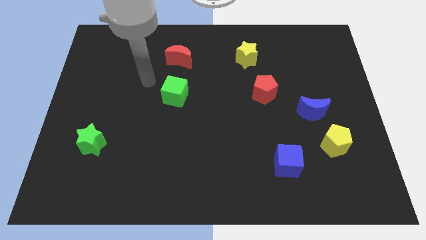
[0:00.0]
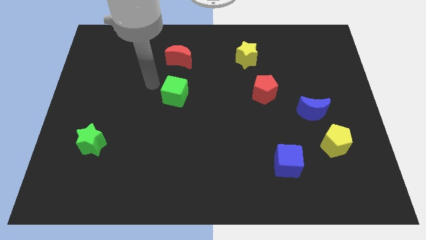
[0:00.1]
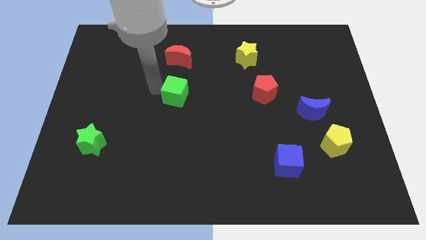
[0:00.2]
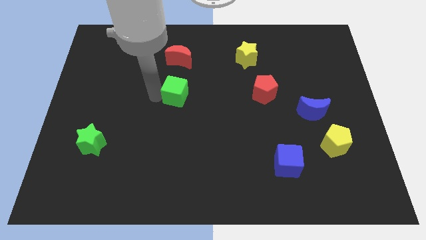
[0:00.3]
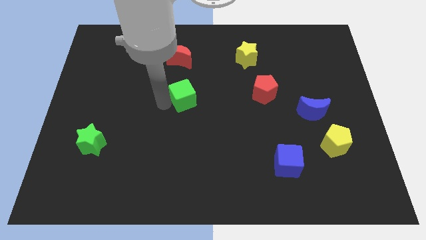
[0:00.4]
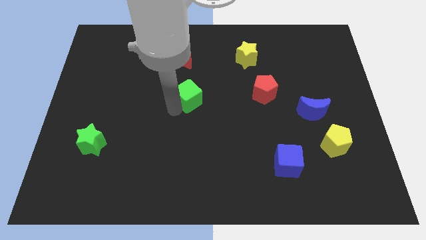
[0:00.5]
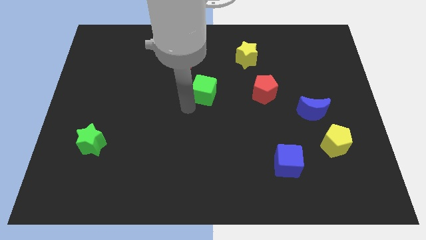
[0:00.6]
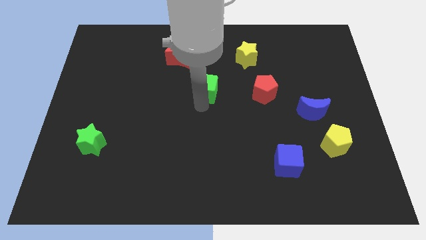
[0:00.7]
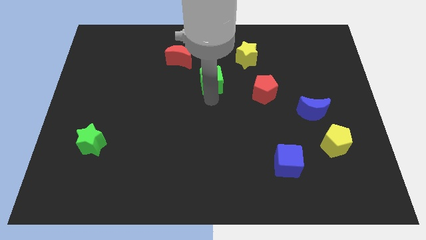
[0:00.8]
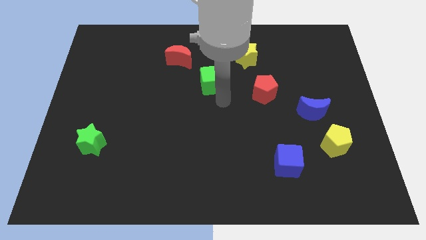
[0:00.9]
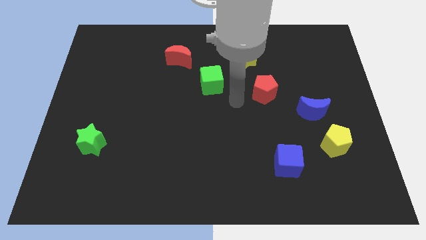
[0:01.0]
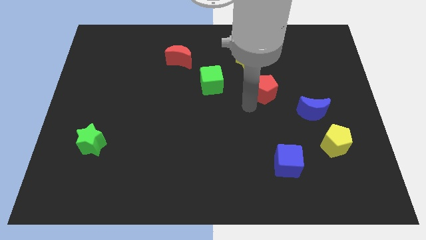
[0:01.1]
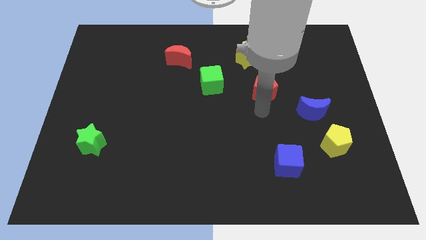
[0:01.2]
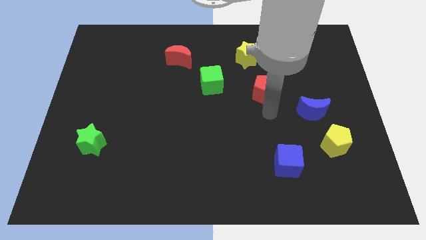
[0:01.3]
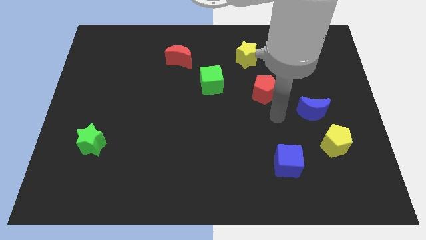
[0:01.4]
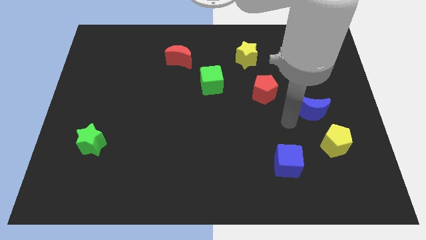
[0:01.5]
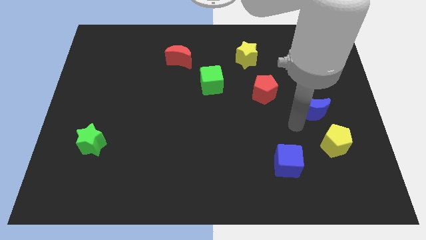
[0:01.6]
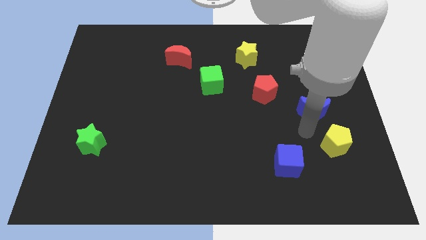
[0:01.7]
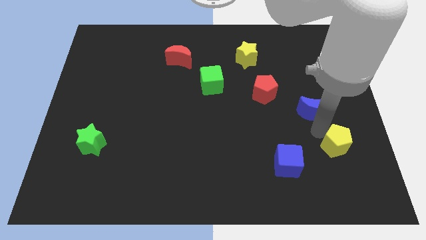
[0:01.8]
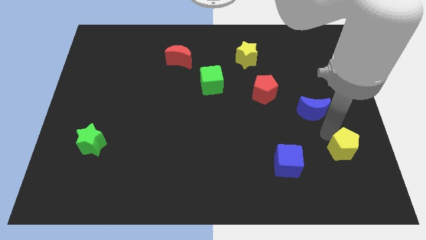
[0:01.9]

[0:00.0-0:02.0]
separate the blue moon from the yellow pentagon

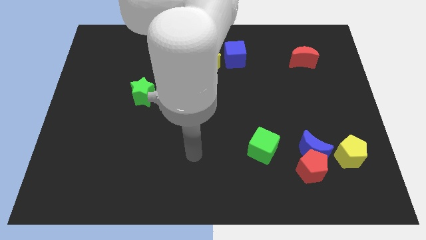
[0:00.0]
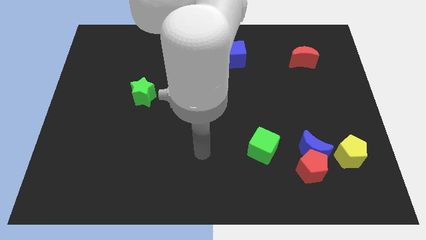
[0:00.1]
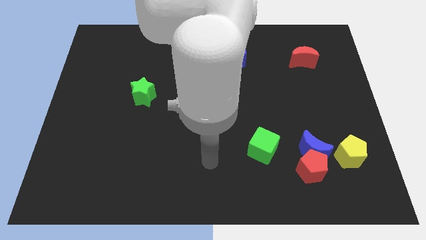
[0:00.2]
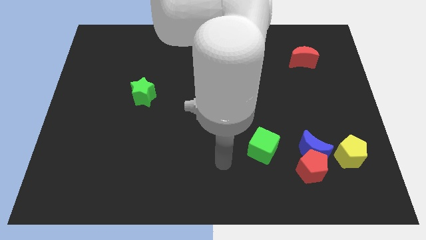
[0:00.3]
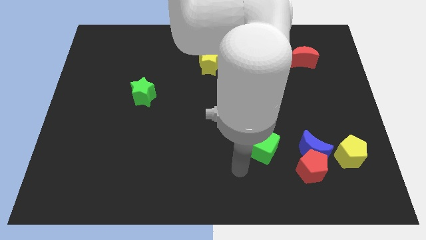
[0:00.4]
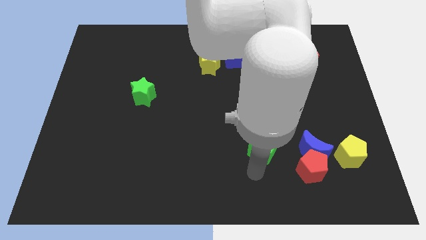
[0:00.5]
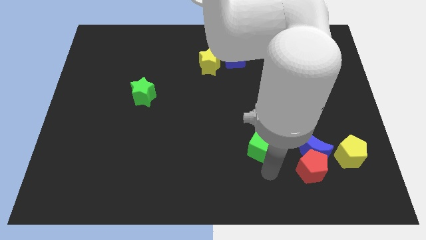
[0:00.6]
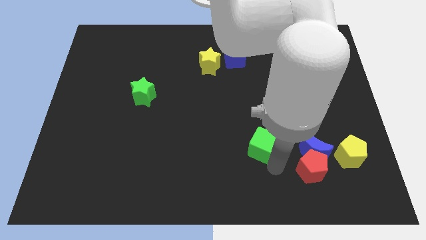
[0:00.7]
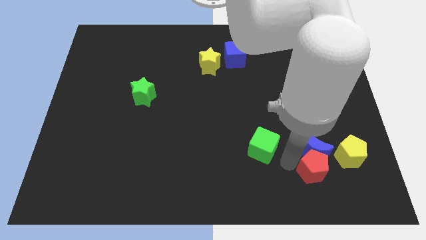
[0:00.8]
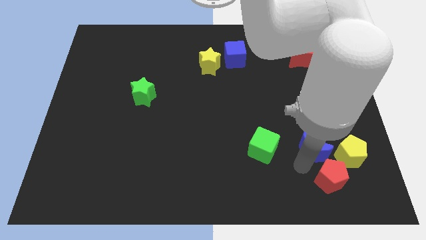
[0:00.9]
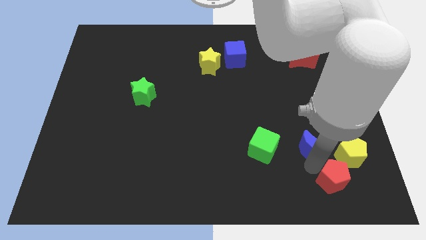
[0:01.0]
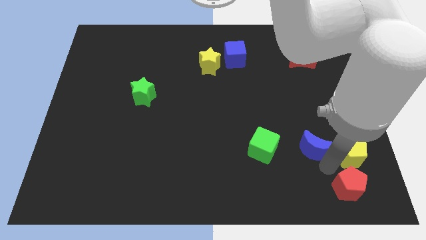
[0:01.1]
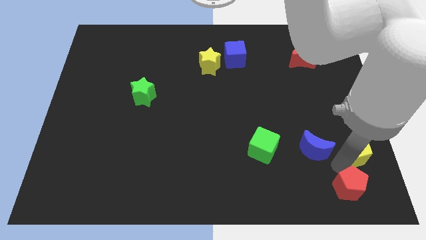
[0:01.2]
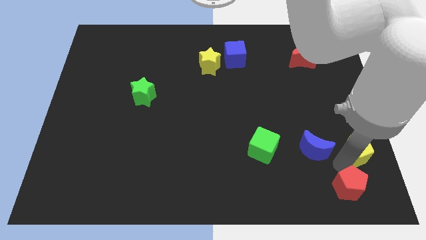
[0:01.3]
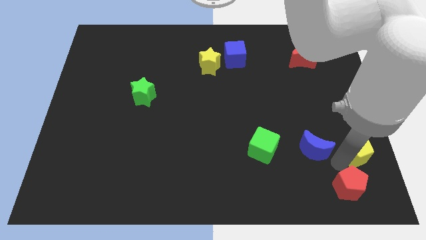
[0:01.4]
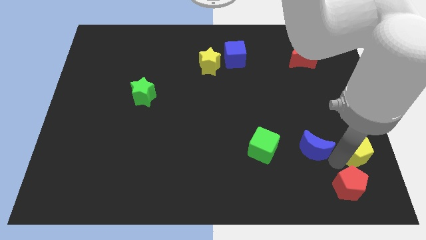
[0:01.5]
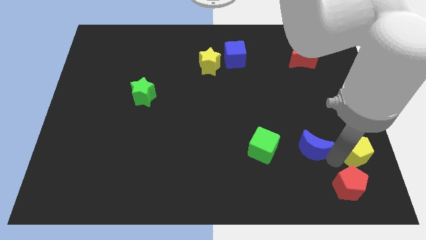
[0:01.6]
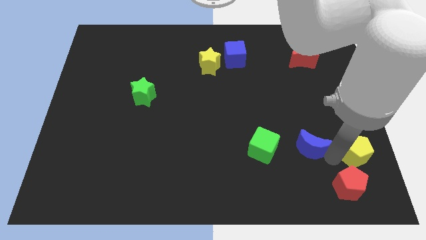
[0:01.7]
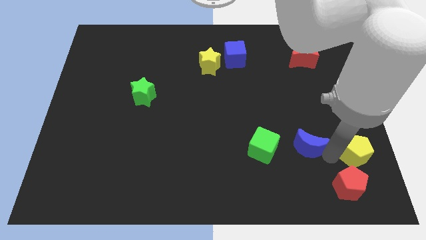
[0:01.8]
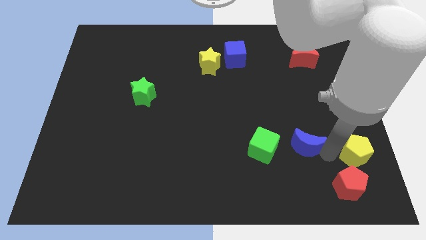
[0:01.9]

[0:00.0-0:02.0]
separate the blue moon from the red pentagon and yellow pentagon

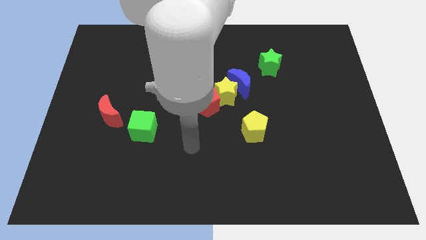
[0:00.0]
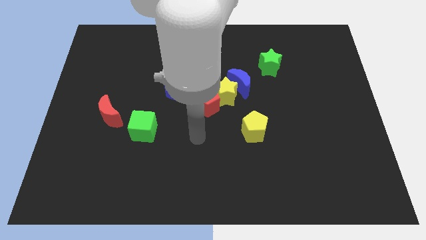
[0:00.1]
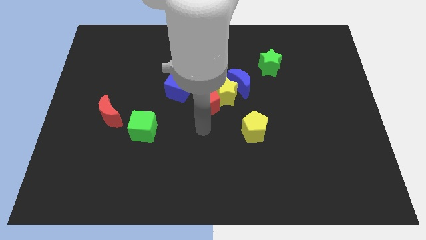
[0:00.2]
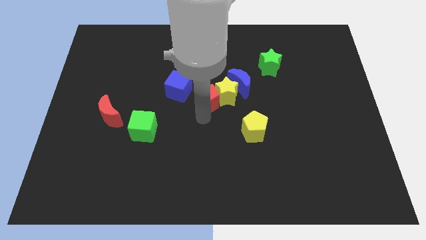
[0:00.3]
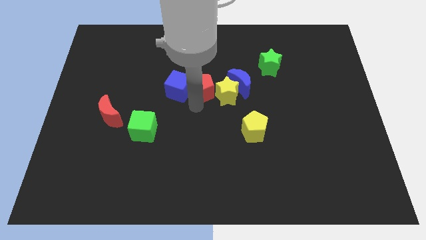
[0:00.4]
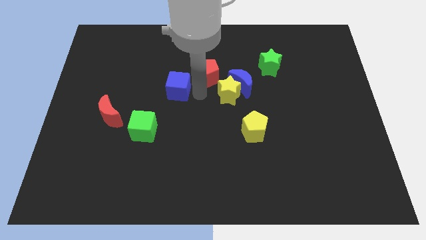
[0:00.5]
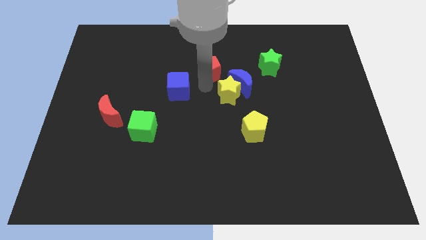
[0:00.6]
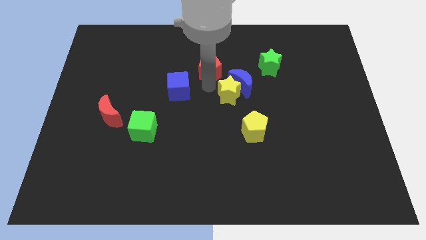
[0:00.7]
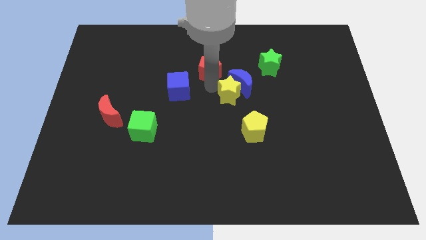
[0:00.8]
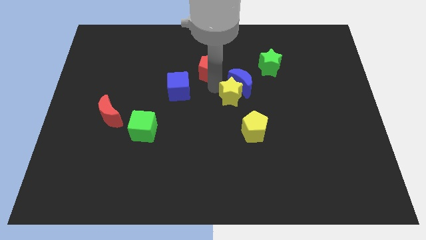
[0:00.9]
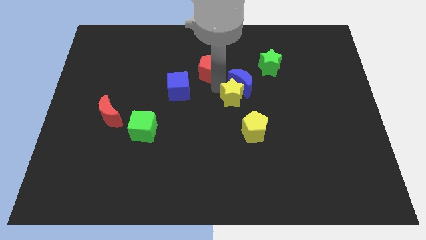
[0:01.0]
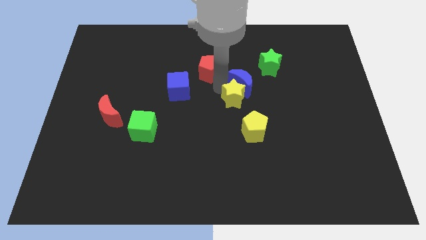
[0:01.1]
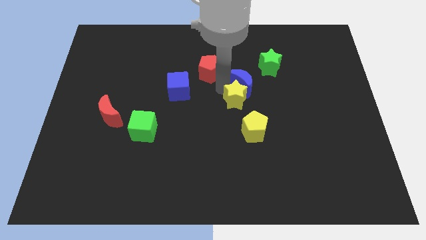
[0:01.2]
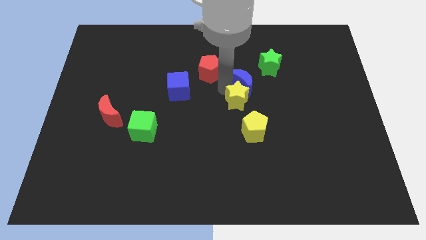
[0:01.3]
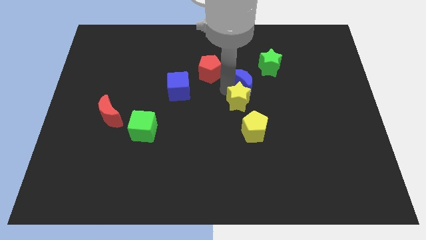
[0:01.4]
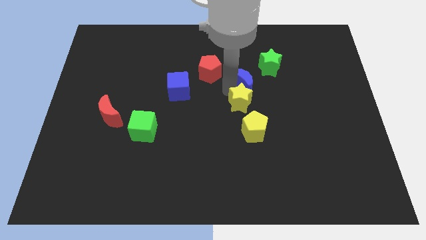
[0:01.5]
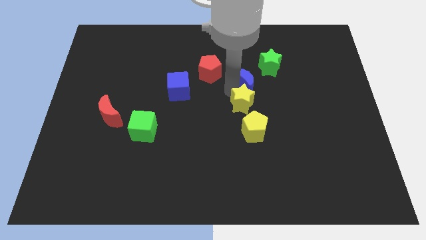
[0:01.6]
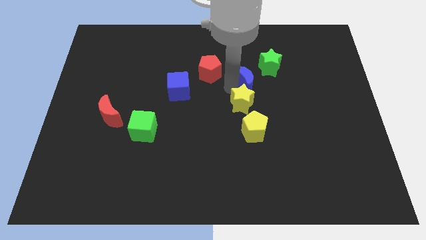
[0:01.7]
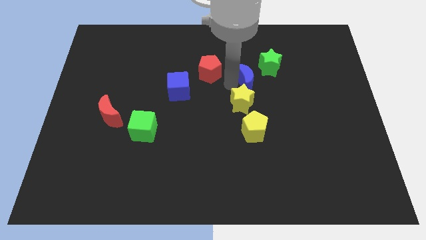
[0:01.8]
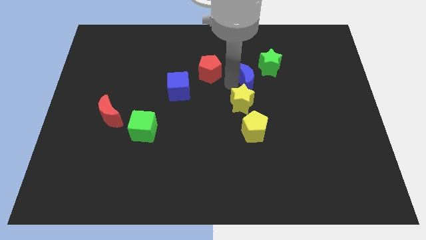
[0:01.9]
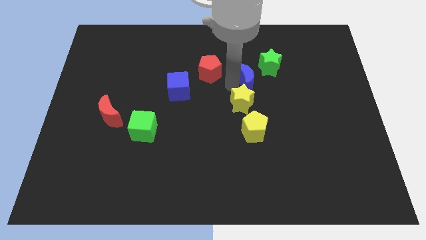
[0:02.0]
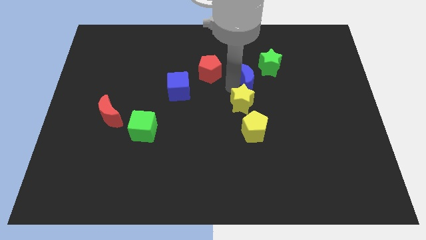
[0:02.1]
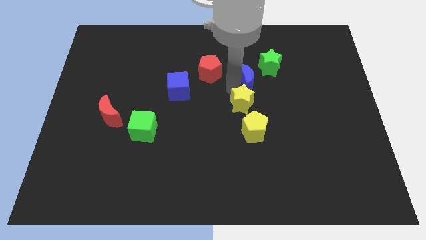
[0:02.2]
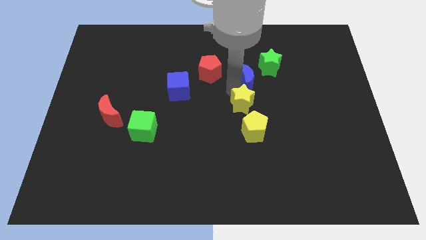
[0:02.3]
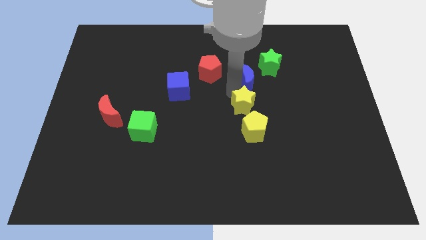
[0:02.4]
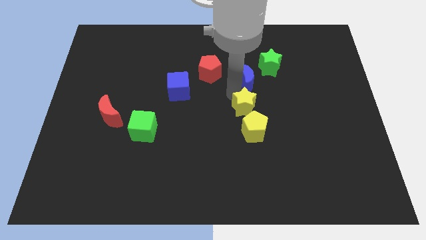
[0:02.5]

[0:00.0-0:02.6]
separate the yellow star from the blue moon and red pentagon

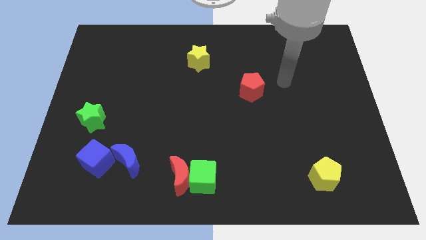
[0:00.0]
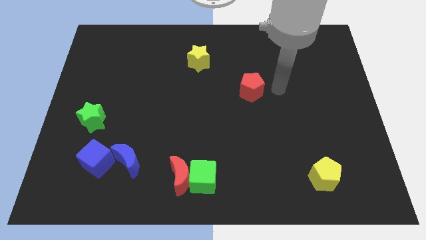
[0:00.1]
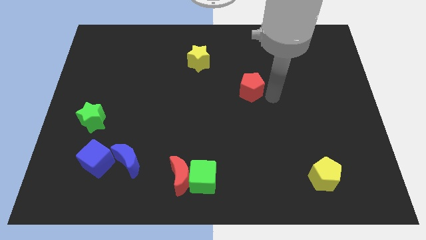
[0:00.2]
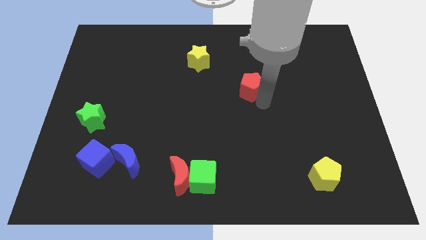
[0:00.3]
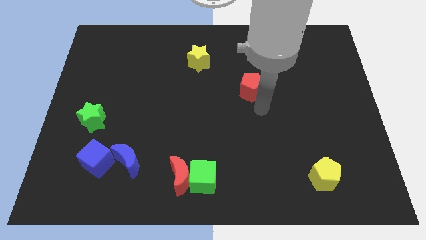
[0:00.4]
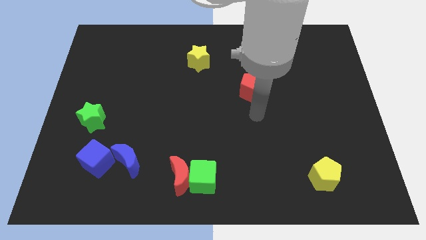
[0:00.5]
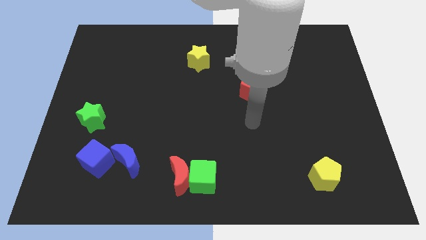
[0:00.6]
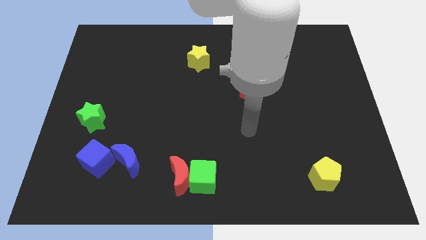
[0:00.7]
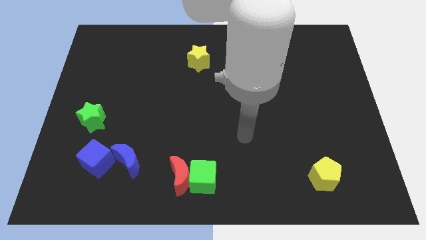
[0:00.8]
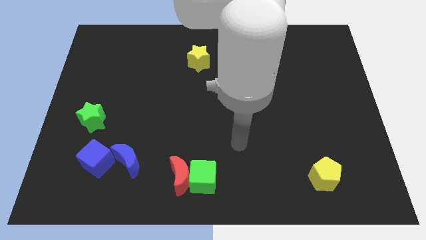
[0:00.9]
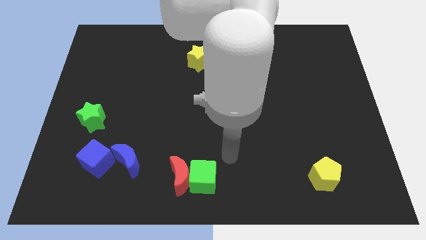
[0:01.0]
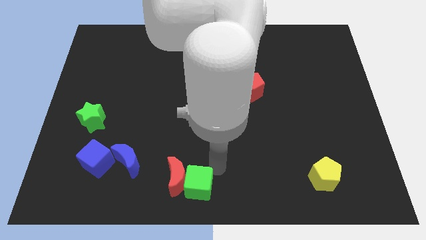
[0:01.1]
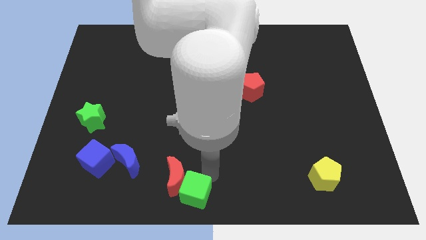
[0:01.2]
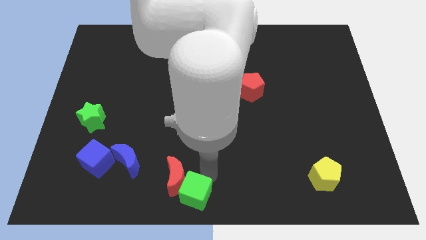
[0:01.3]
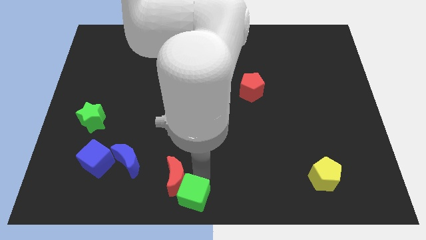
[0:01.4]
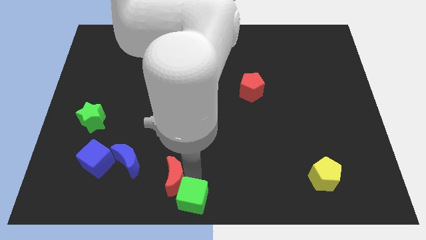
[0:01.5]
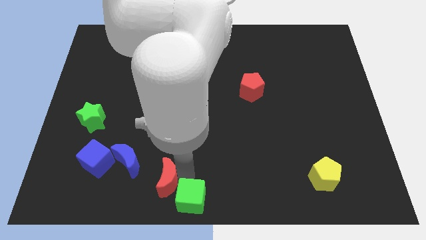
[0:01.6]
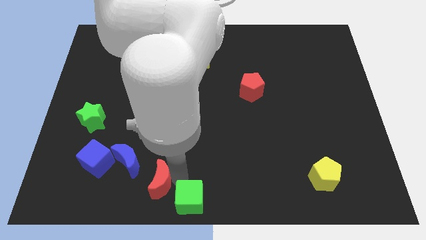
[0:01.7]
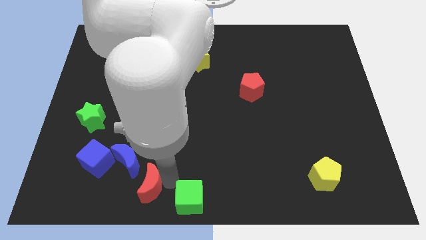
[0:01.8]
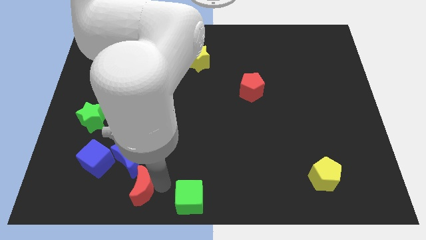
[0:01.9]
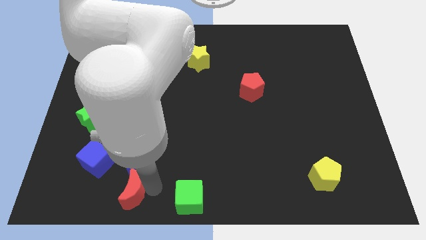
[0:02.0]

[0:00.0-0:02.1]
separate the red moon from the green cube

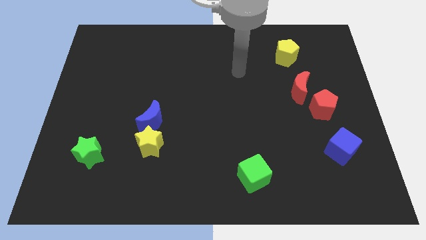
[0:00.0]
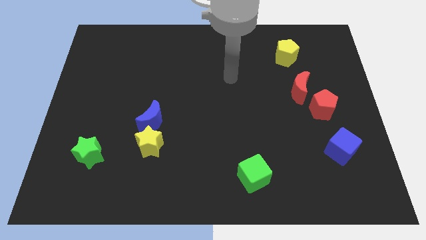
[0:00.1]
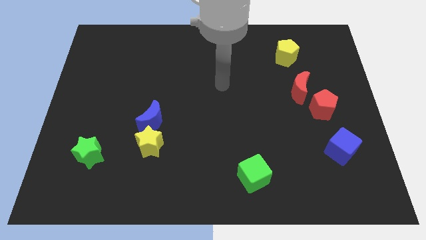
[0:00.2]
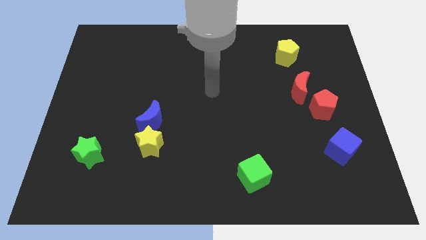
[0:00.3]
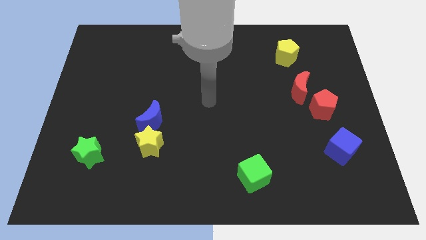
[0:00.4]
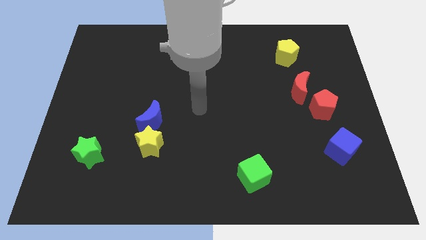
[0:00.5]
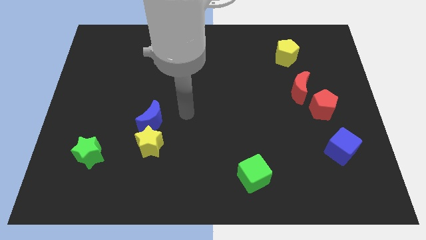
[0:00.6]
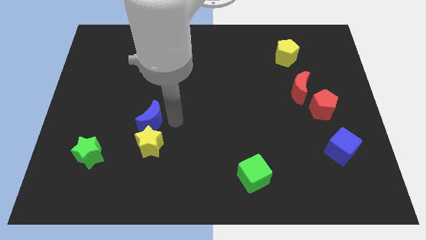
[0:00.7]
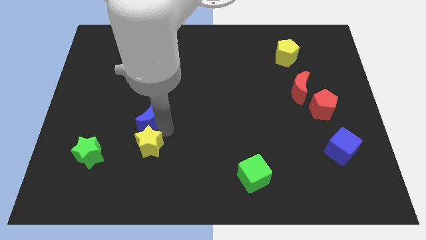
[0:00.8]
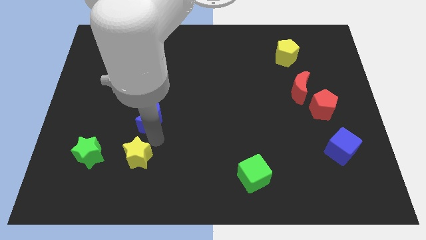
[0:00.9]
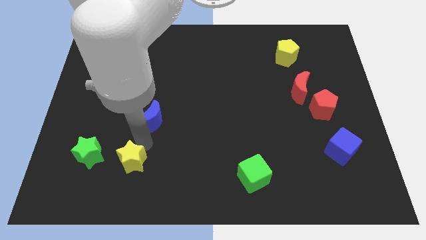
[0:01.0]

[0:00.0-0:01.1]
separate the blue moon from the yellow star
